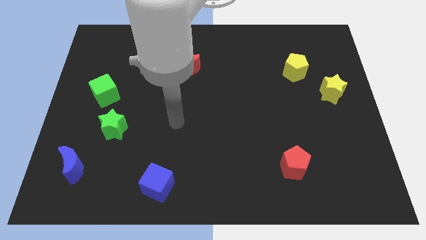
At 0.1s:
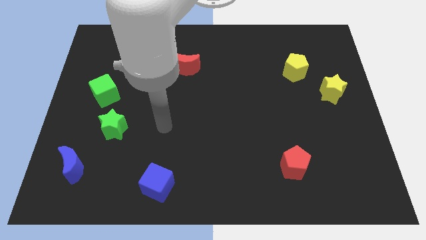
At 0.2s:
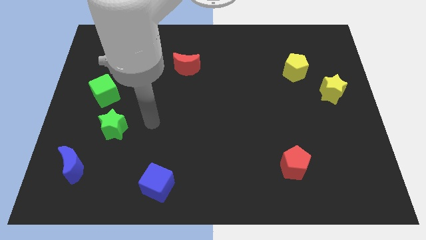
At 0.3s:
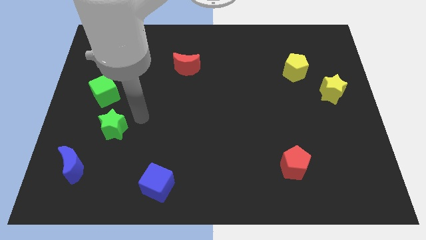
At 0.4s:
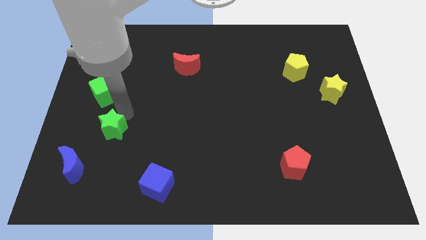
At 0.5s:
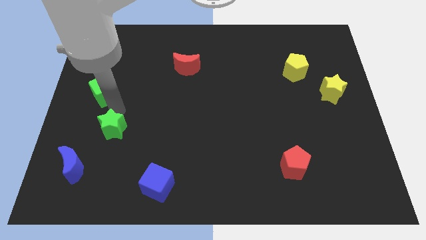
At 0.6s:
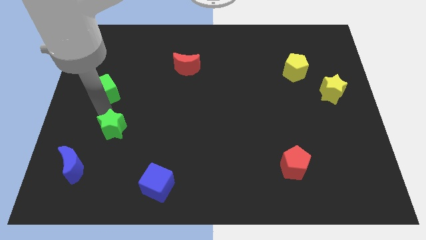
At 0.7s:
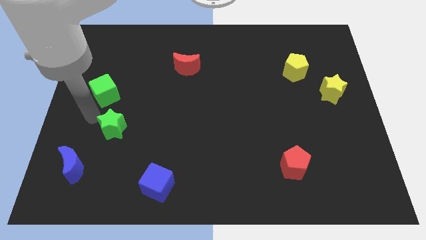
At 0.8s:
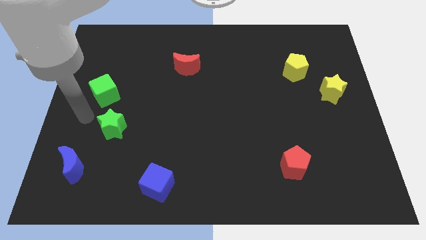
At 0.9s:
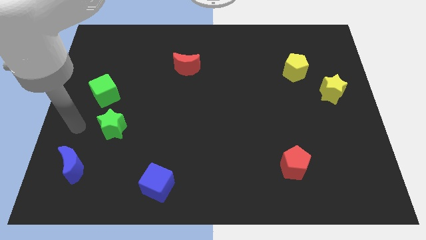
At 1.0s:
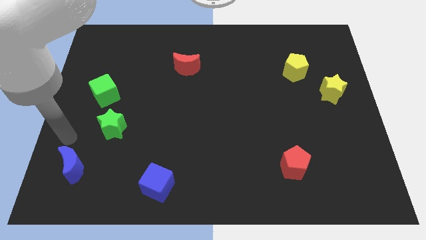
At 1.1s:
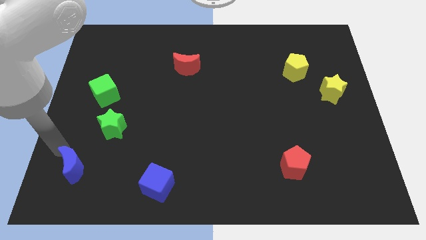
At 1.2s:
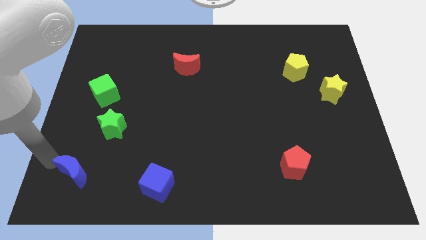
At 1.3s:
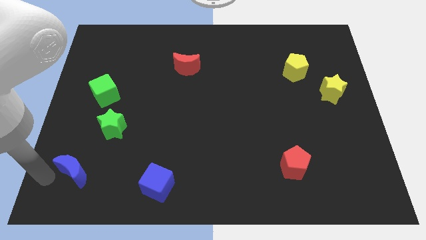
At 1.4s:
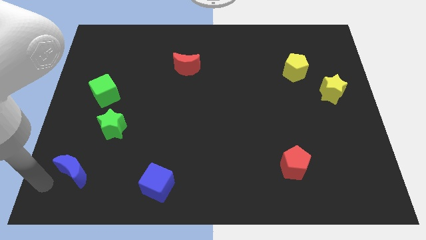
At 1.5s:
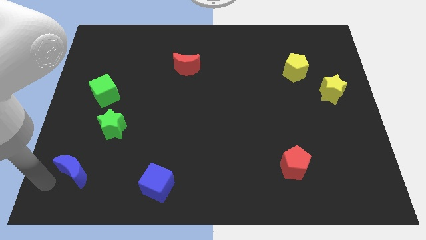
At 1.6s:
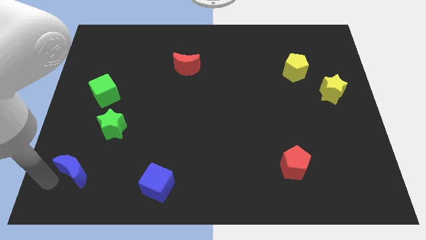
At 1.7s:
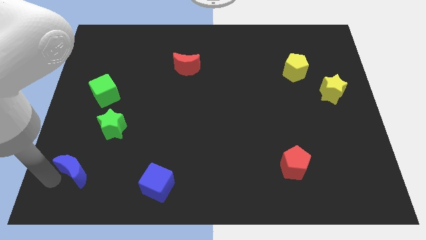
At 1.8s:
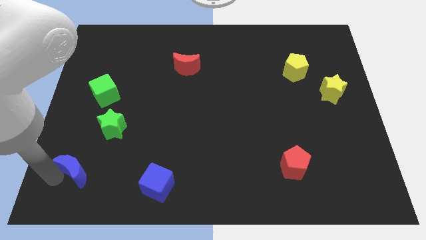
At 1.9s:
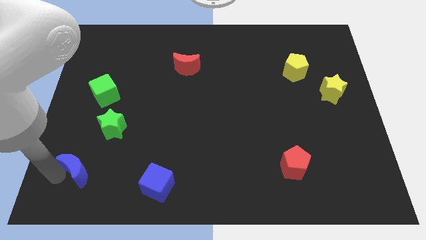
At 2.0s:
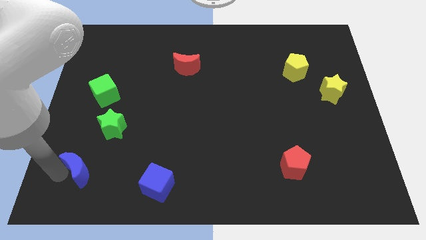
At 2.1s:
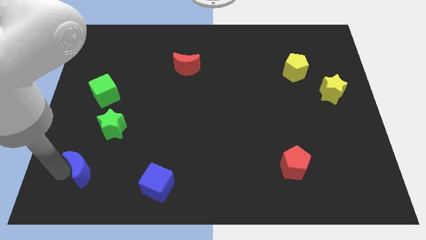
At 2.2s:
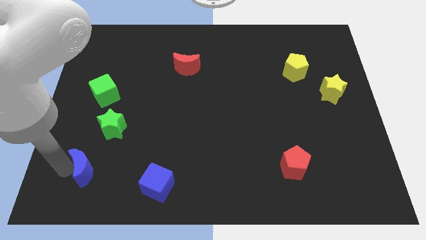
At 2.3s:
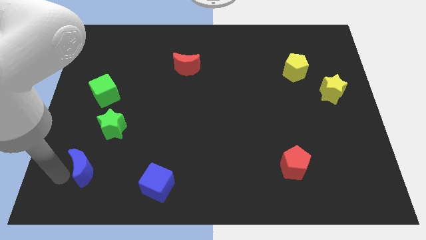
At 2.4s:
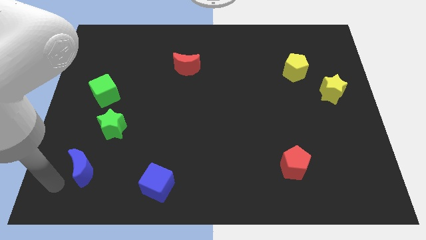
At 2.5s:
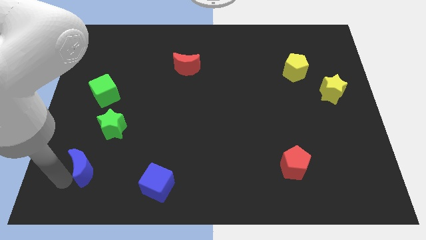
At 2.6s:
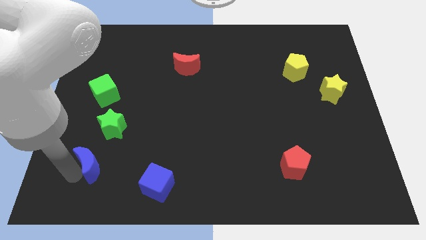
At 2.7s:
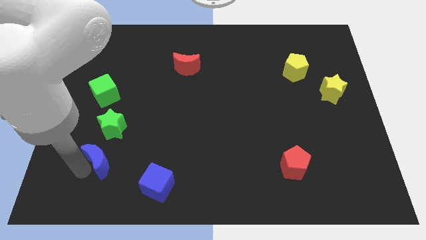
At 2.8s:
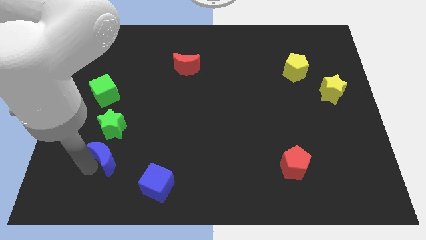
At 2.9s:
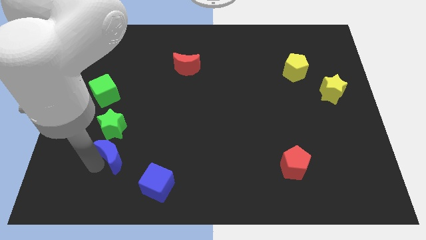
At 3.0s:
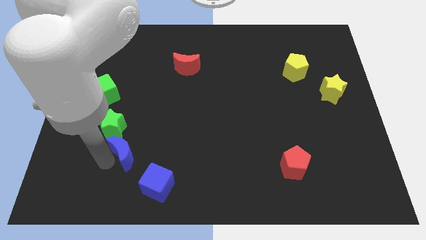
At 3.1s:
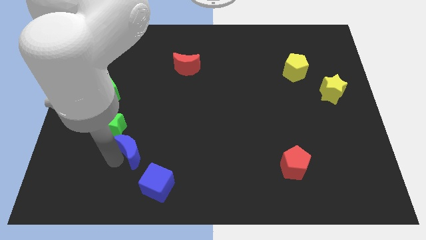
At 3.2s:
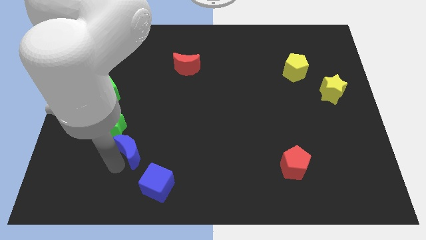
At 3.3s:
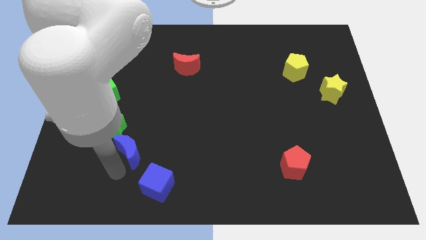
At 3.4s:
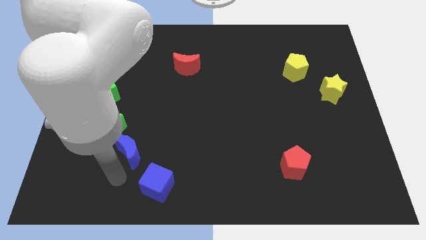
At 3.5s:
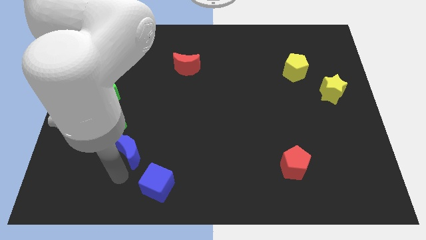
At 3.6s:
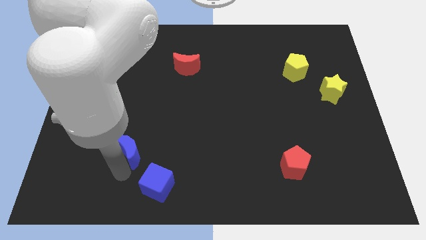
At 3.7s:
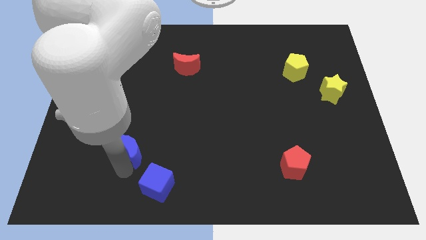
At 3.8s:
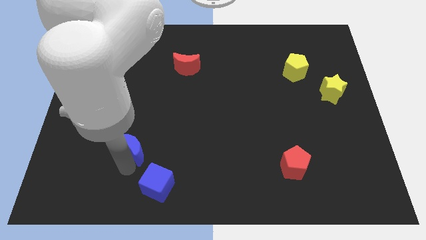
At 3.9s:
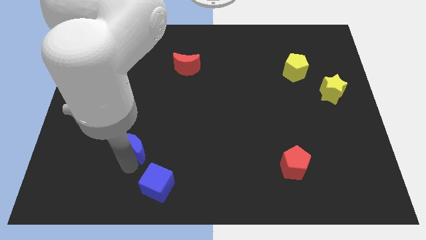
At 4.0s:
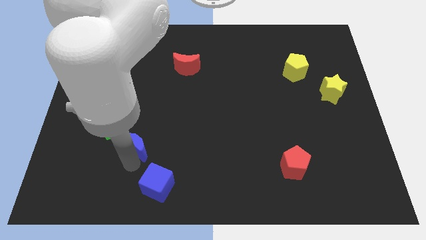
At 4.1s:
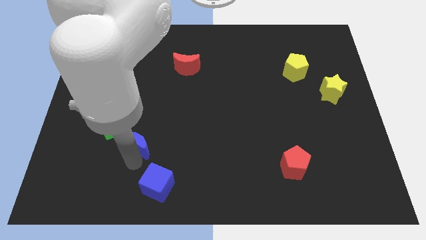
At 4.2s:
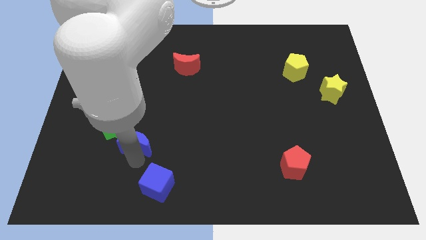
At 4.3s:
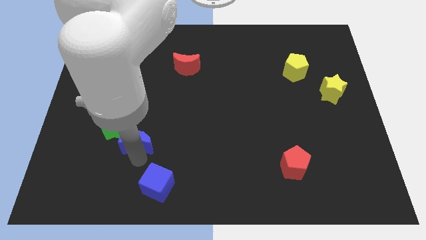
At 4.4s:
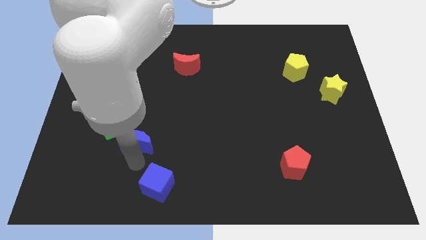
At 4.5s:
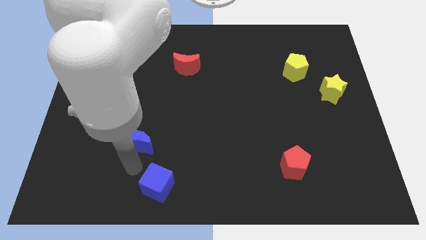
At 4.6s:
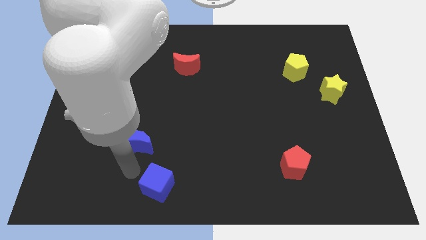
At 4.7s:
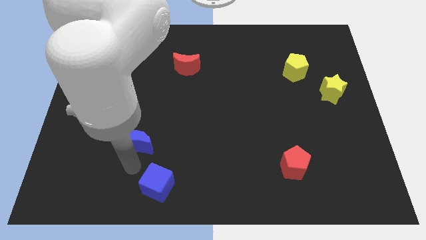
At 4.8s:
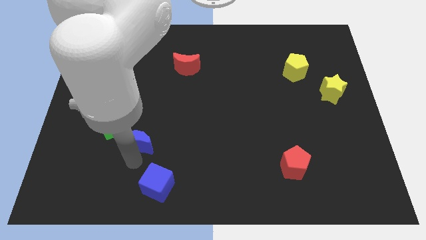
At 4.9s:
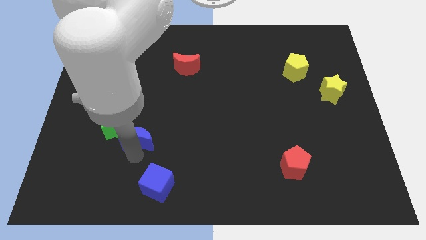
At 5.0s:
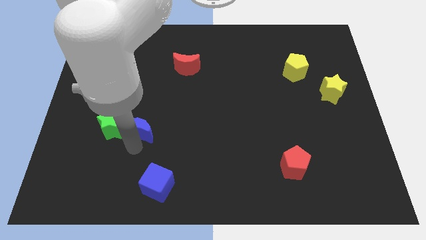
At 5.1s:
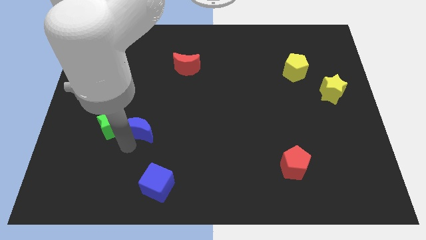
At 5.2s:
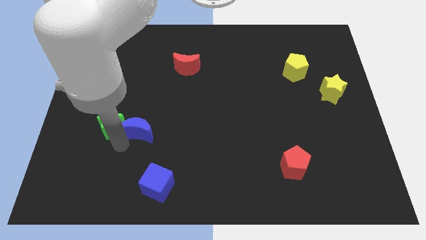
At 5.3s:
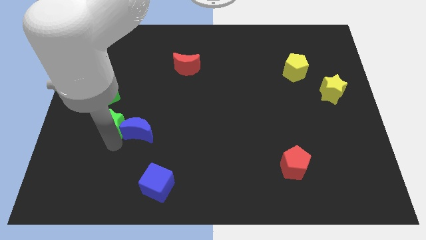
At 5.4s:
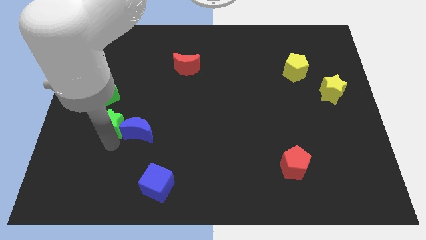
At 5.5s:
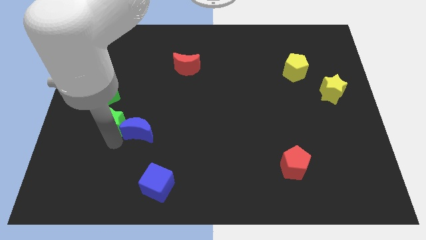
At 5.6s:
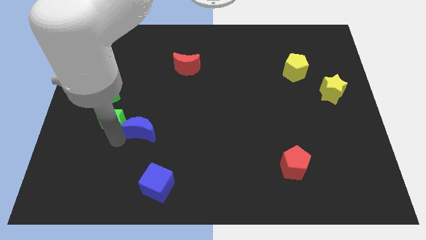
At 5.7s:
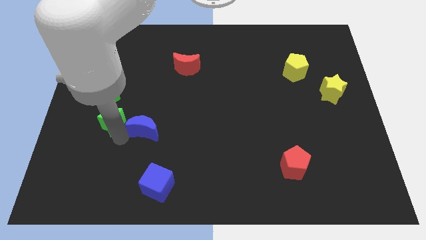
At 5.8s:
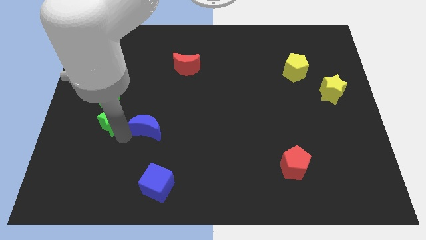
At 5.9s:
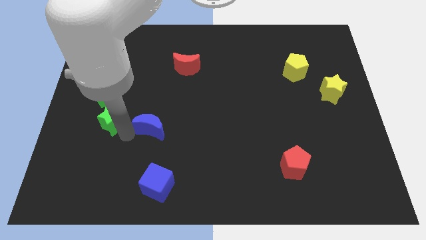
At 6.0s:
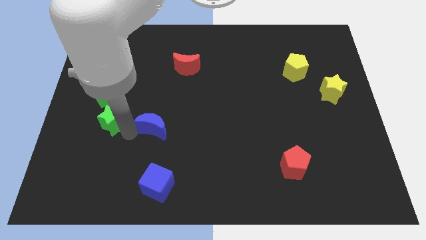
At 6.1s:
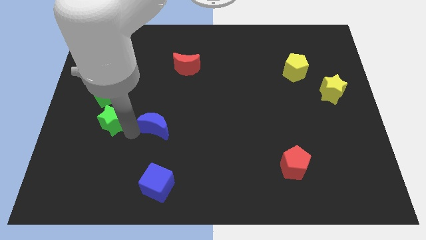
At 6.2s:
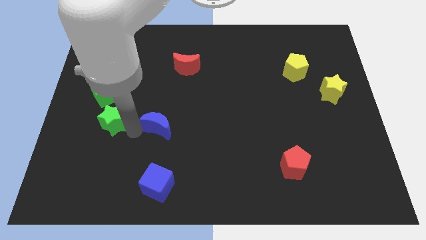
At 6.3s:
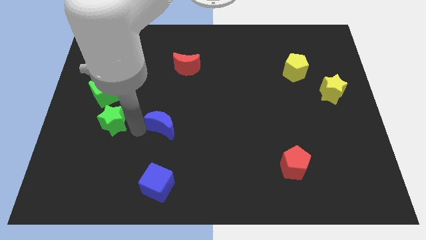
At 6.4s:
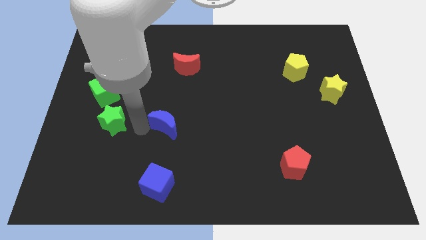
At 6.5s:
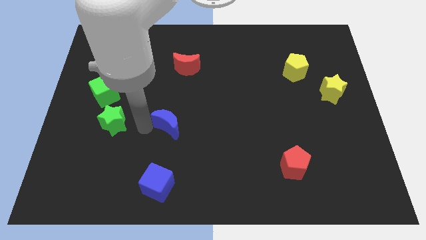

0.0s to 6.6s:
move the blue moon to the center
